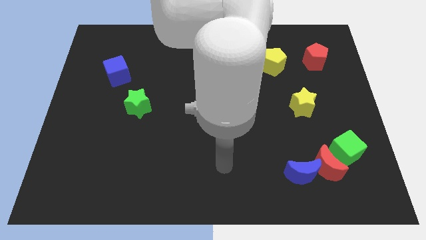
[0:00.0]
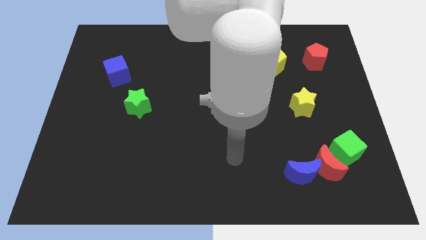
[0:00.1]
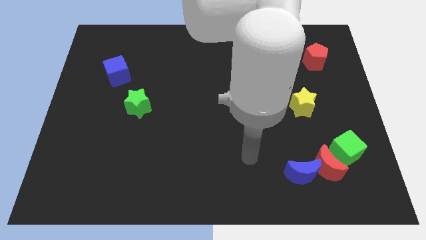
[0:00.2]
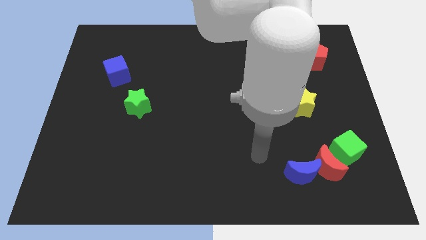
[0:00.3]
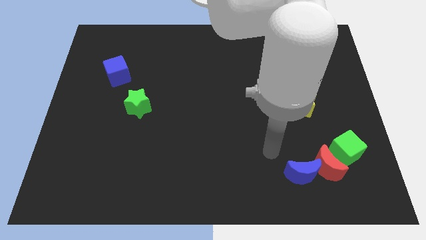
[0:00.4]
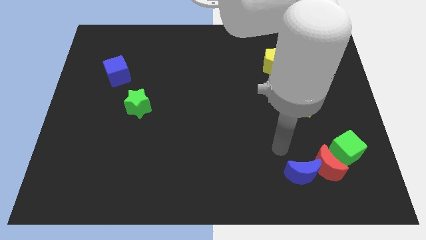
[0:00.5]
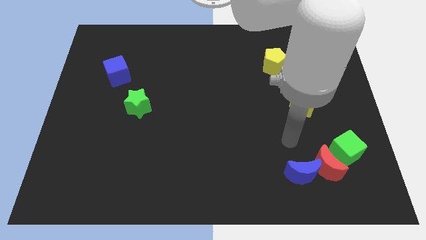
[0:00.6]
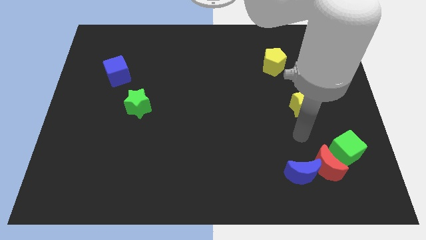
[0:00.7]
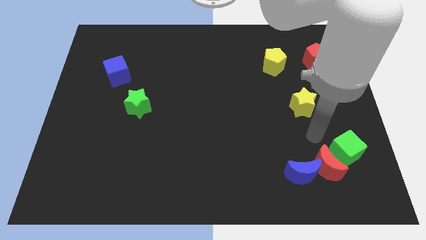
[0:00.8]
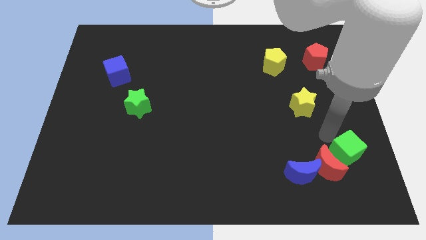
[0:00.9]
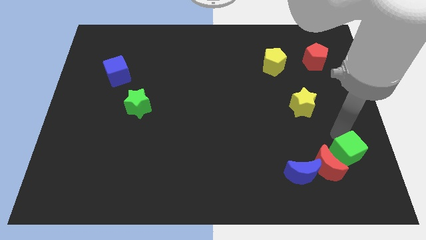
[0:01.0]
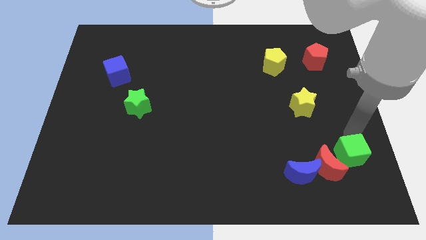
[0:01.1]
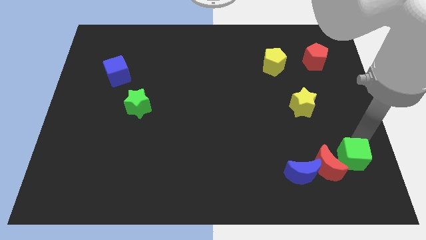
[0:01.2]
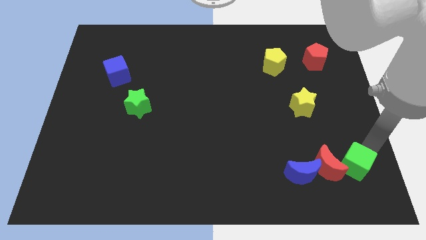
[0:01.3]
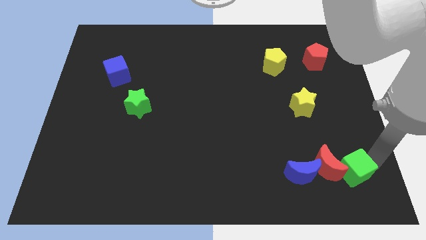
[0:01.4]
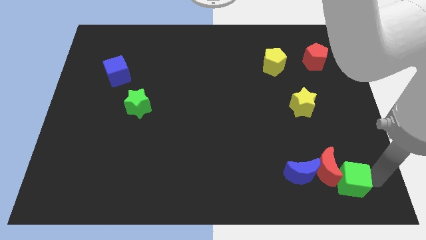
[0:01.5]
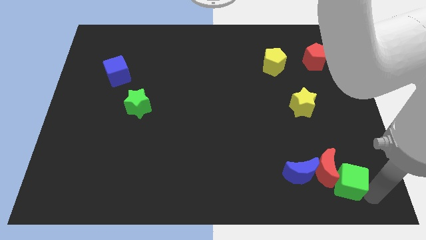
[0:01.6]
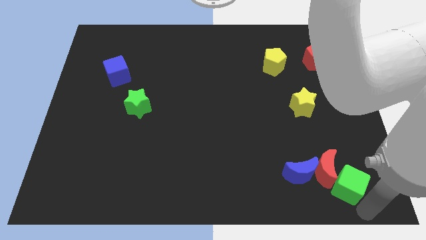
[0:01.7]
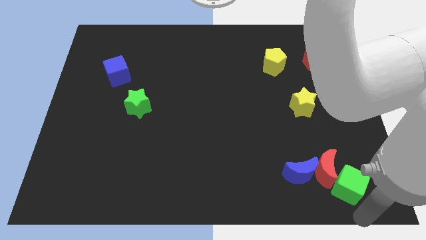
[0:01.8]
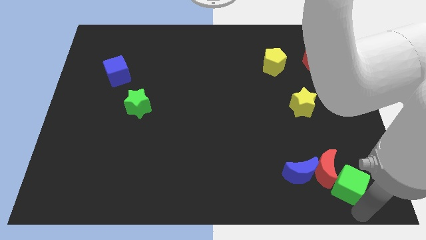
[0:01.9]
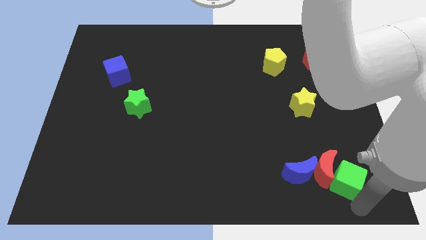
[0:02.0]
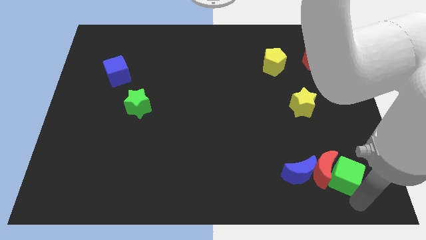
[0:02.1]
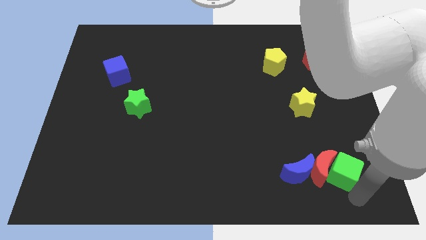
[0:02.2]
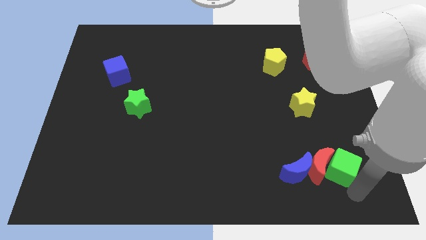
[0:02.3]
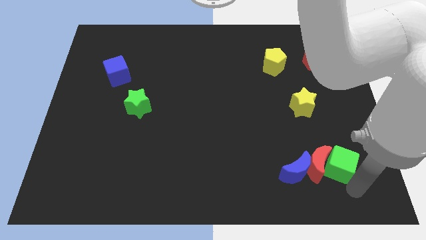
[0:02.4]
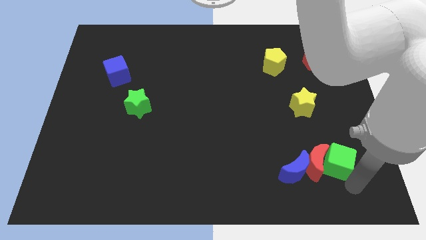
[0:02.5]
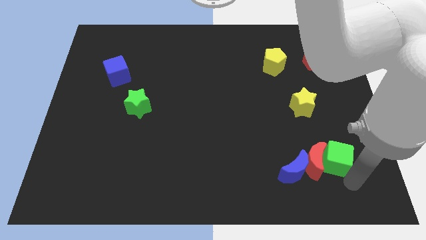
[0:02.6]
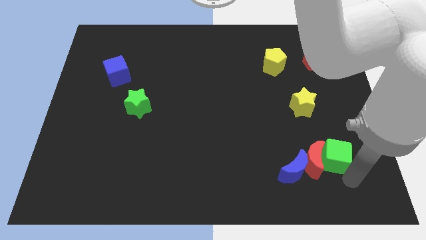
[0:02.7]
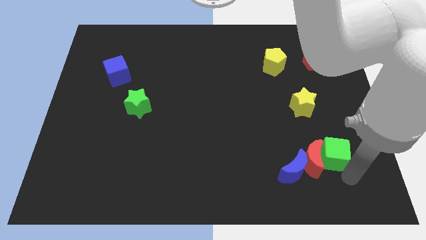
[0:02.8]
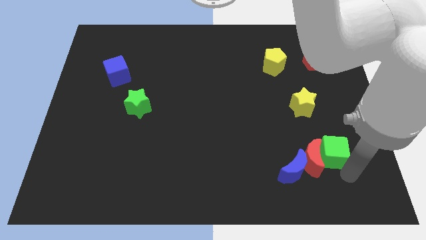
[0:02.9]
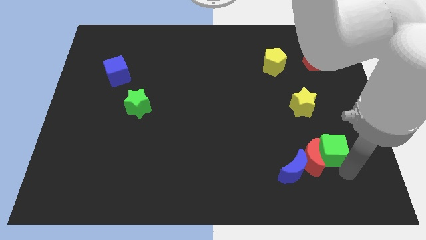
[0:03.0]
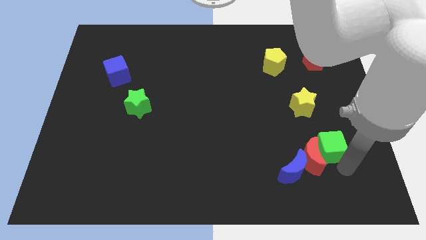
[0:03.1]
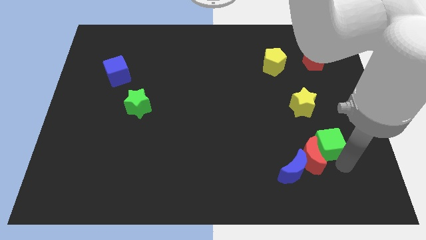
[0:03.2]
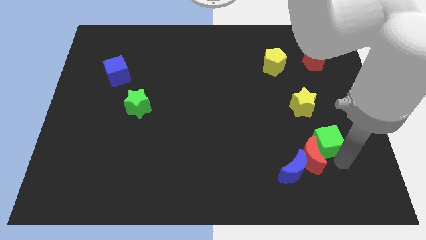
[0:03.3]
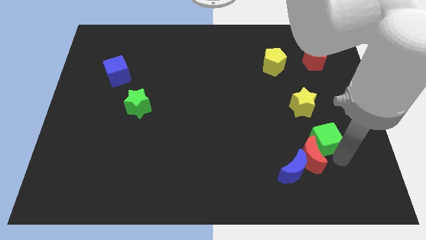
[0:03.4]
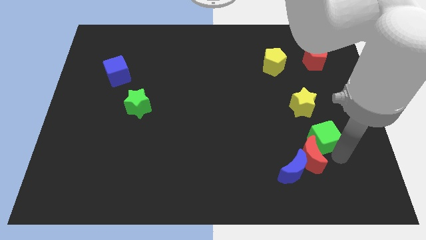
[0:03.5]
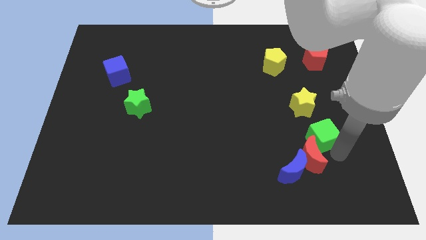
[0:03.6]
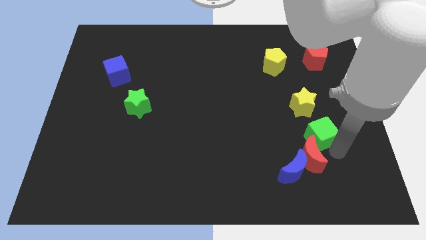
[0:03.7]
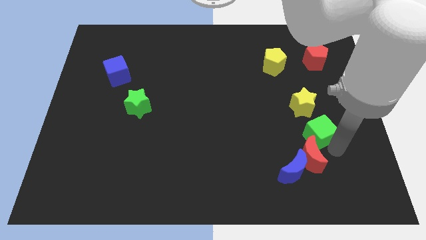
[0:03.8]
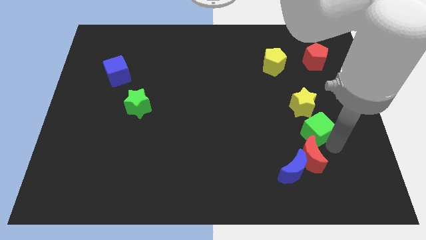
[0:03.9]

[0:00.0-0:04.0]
move the green cube slightly up and to the left diagonally

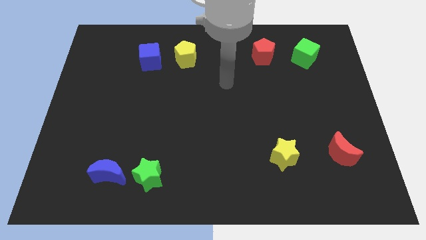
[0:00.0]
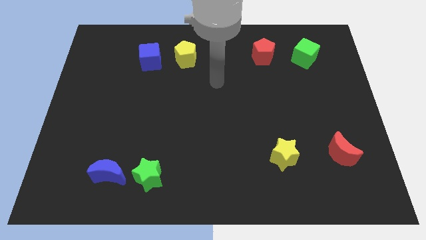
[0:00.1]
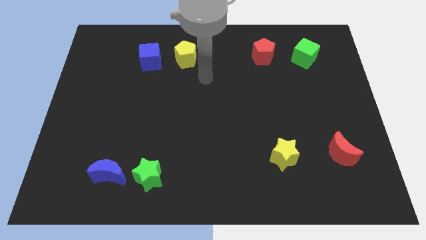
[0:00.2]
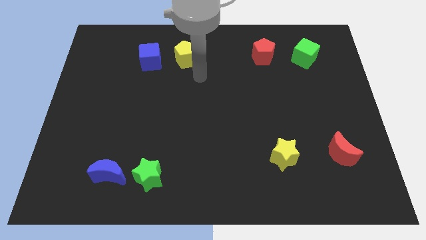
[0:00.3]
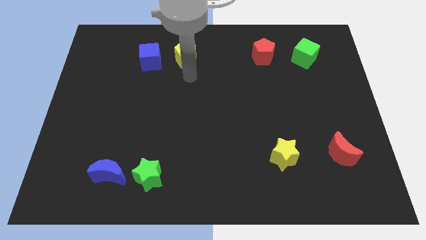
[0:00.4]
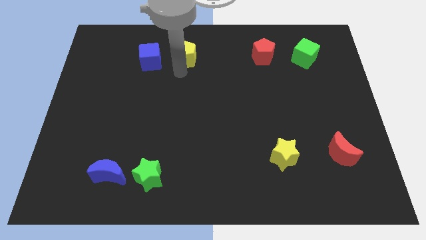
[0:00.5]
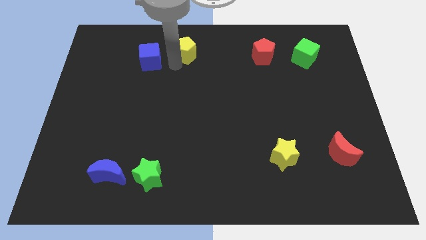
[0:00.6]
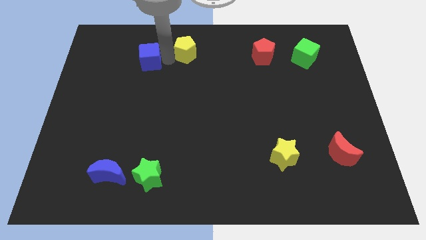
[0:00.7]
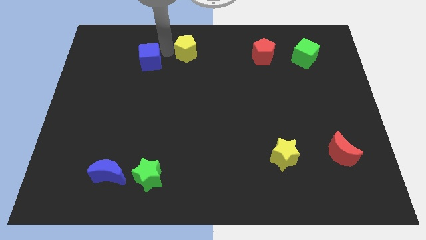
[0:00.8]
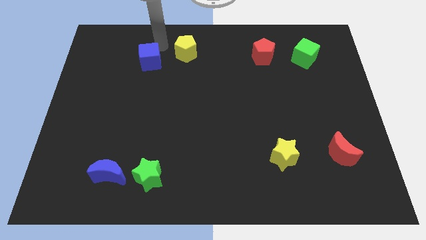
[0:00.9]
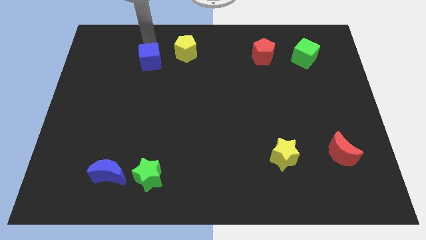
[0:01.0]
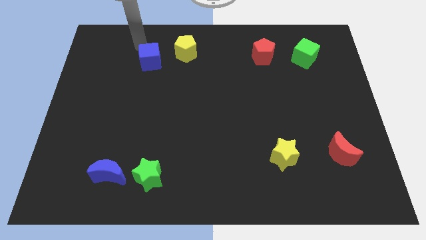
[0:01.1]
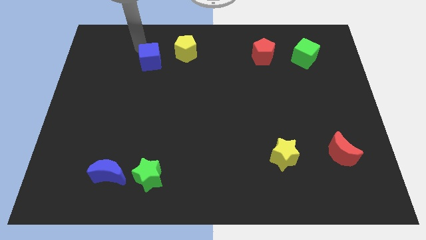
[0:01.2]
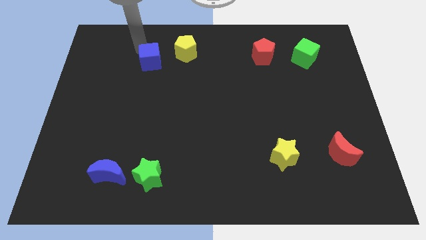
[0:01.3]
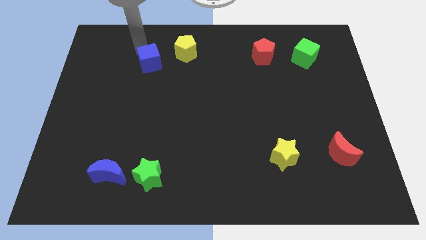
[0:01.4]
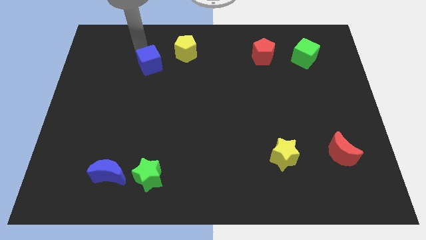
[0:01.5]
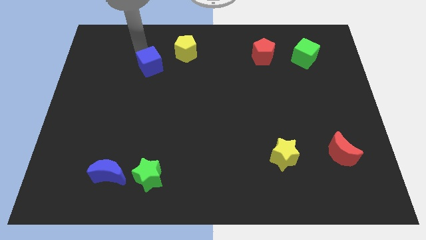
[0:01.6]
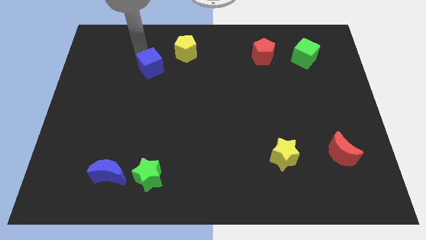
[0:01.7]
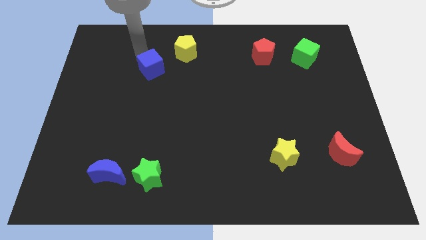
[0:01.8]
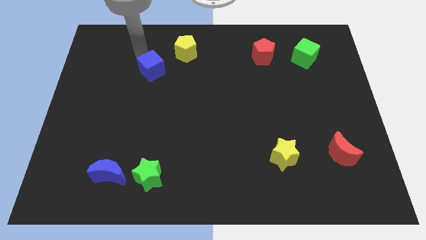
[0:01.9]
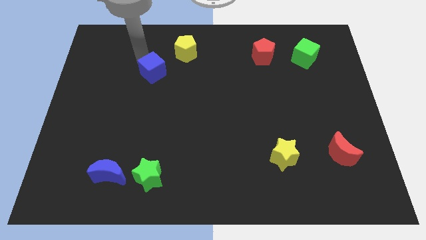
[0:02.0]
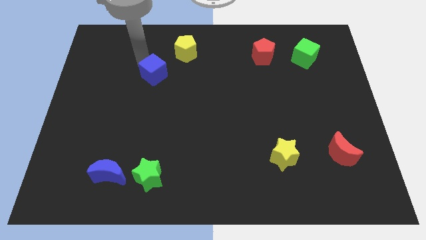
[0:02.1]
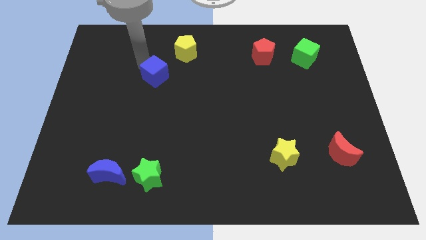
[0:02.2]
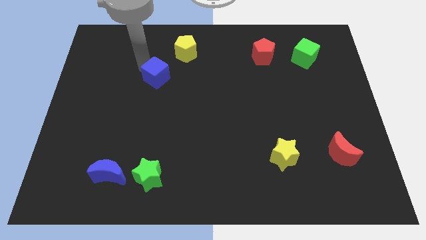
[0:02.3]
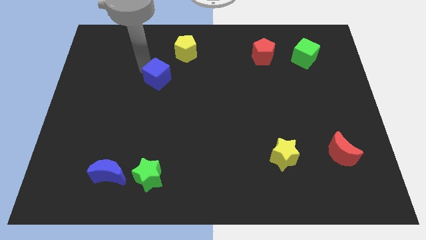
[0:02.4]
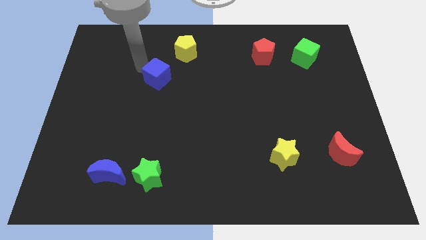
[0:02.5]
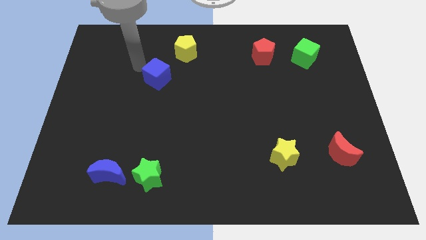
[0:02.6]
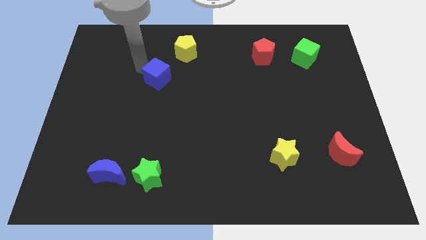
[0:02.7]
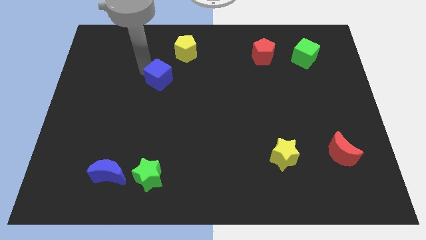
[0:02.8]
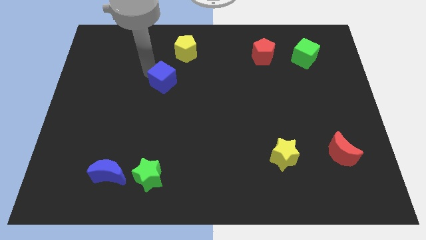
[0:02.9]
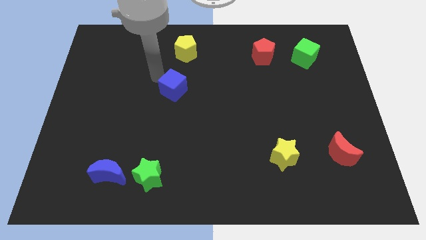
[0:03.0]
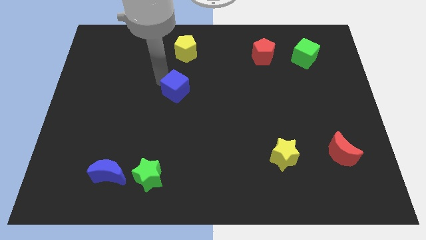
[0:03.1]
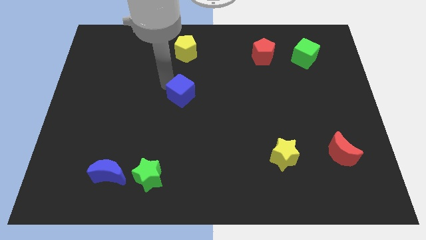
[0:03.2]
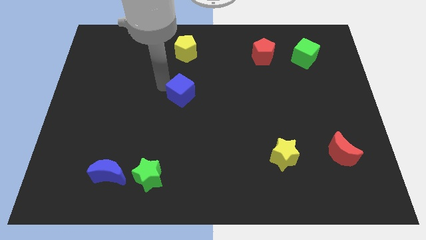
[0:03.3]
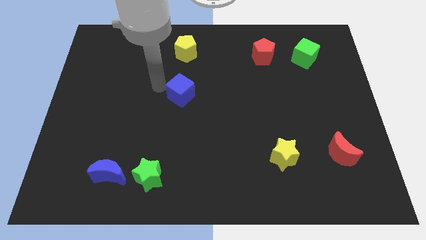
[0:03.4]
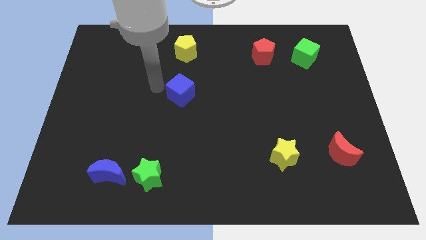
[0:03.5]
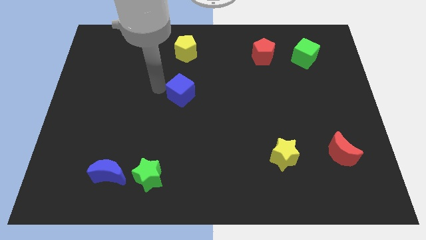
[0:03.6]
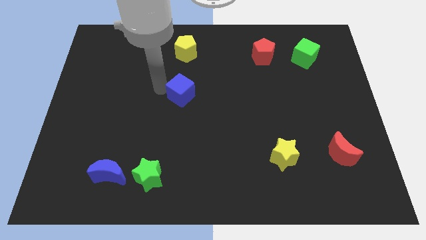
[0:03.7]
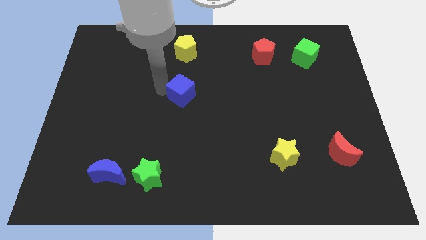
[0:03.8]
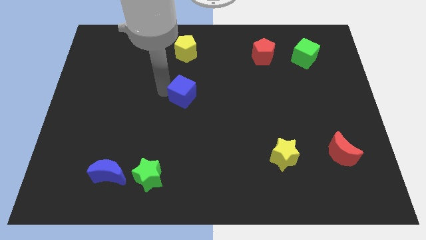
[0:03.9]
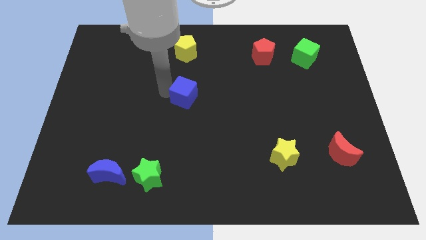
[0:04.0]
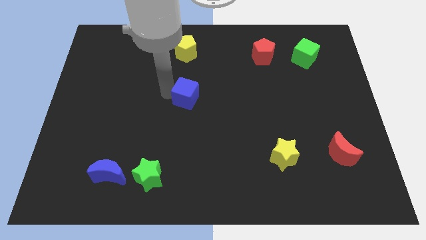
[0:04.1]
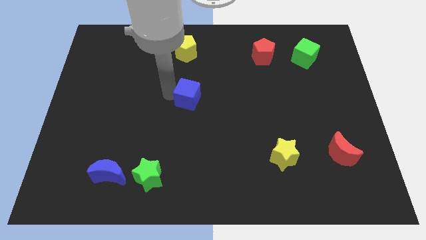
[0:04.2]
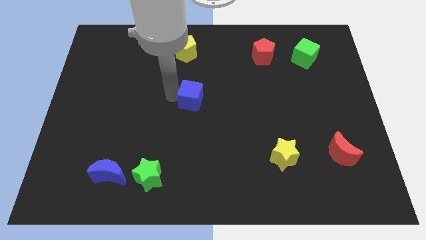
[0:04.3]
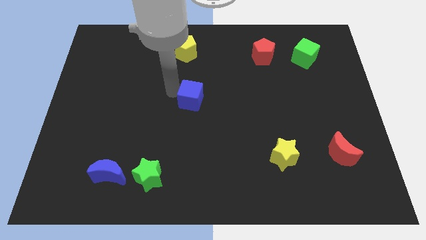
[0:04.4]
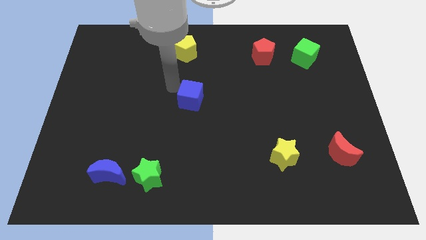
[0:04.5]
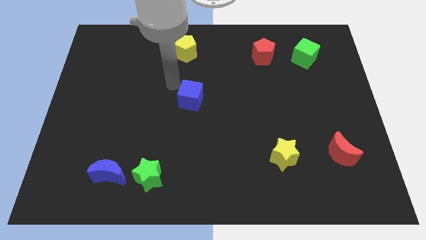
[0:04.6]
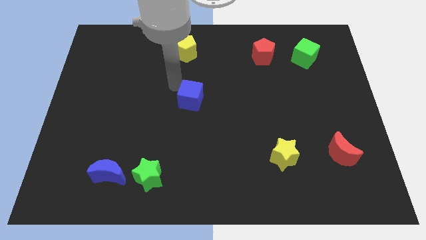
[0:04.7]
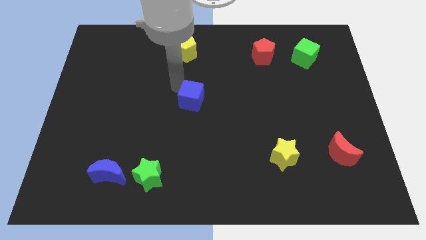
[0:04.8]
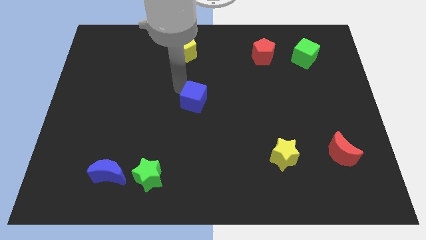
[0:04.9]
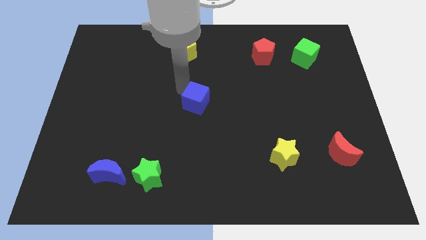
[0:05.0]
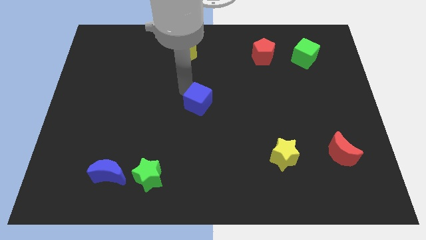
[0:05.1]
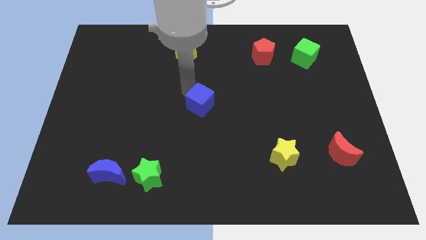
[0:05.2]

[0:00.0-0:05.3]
move the blue cube downwards and right diagonally
